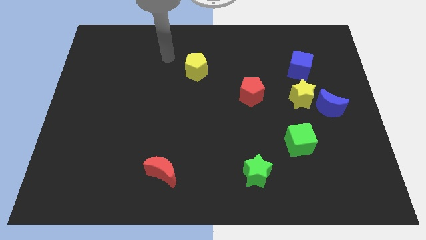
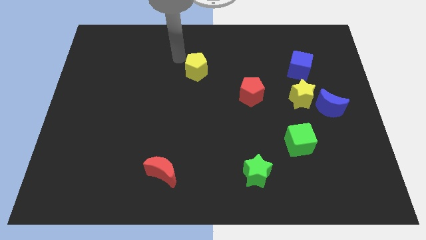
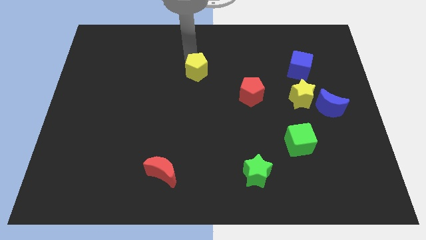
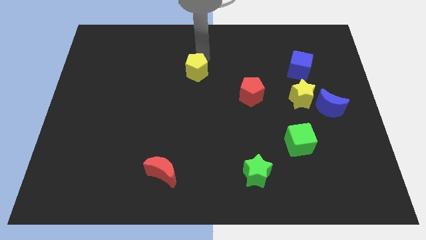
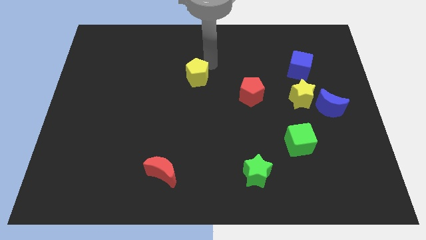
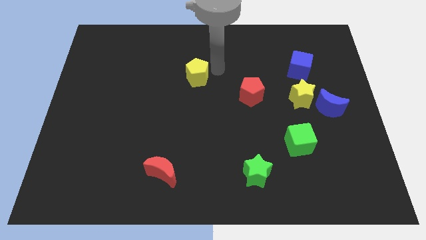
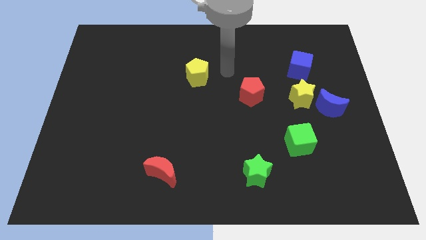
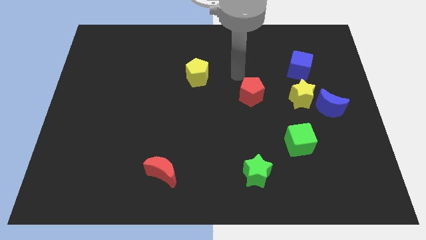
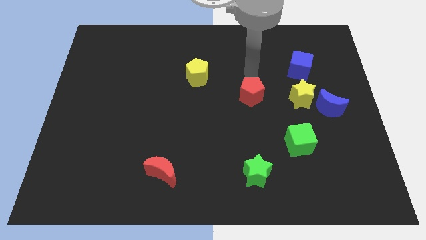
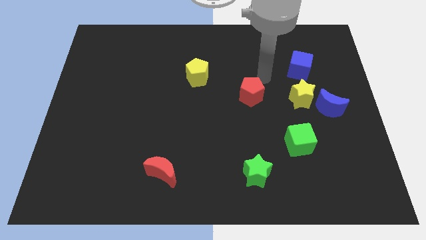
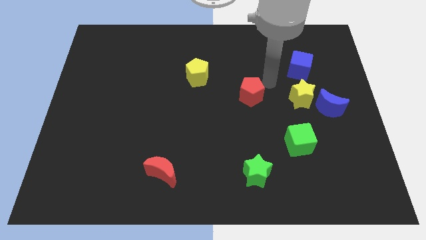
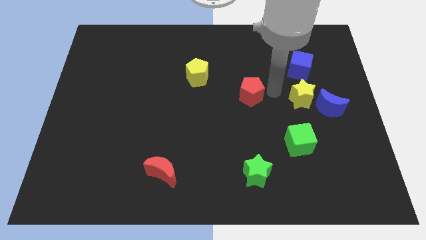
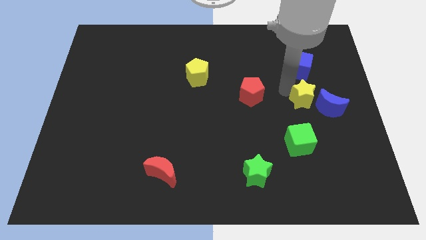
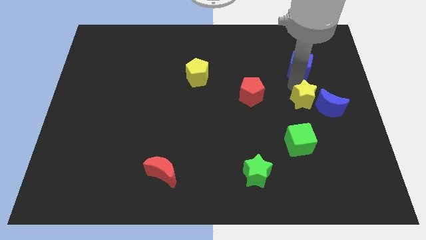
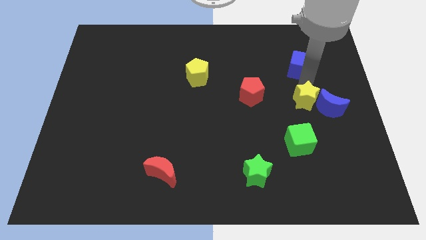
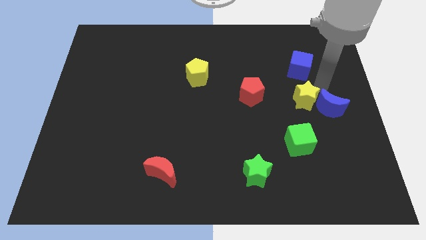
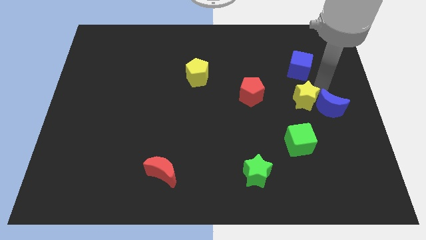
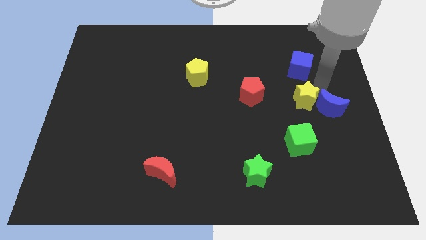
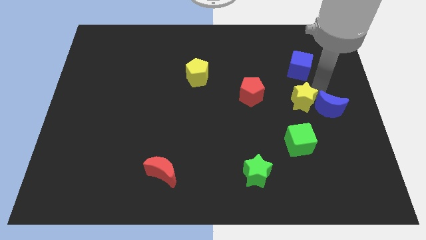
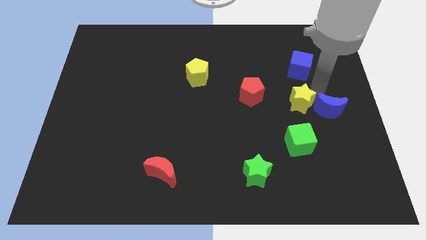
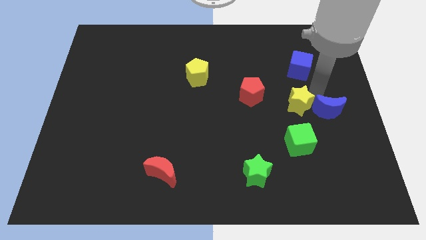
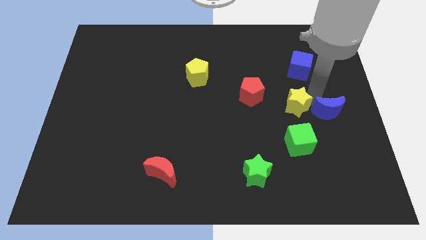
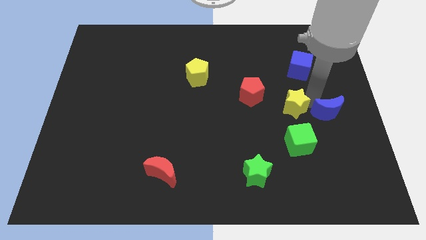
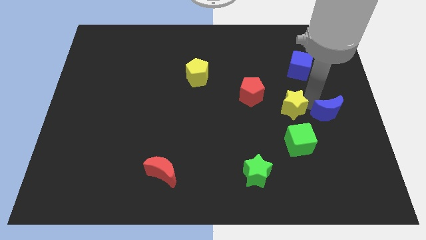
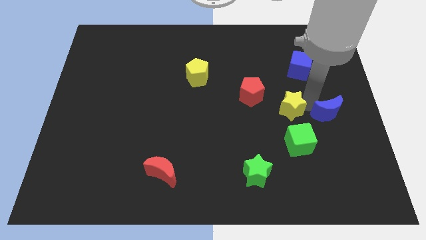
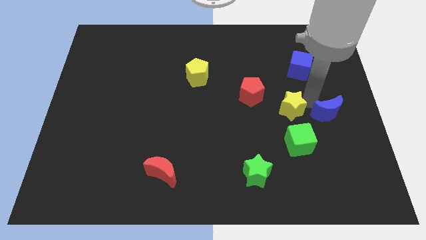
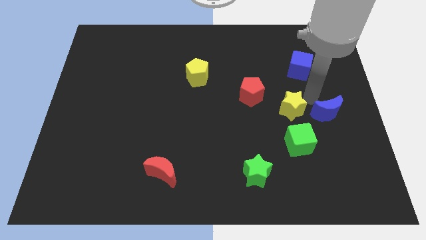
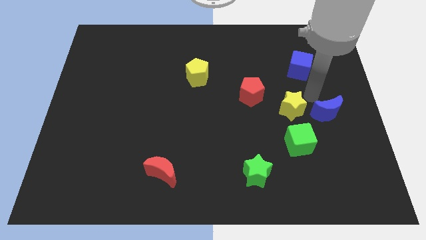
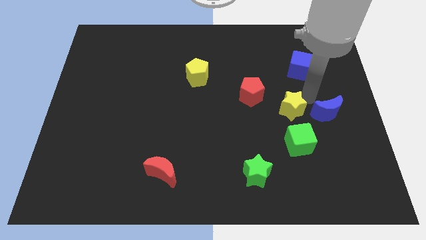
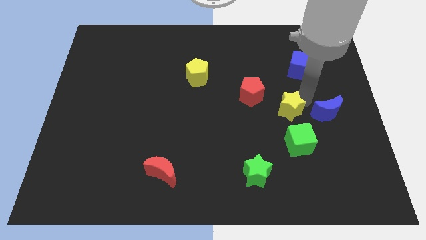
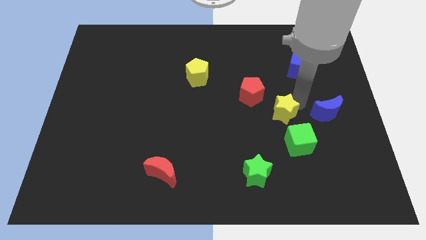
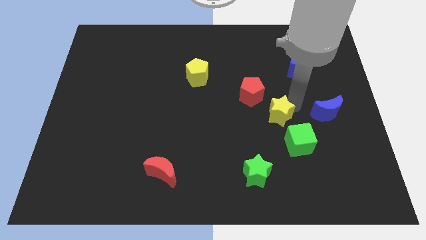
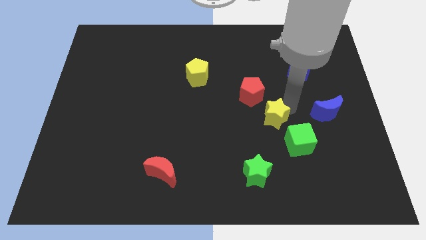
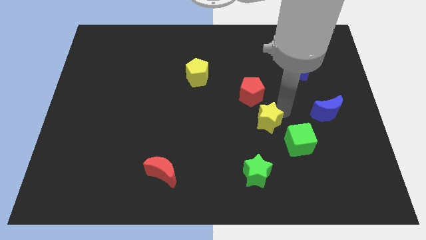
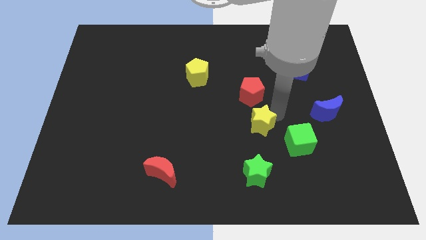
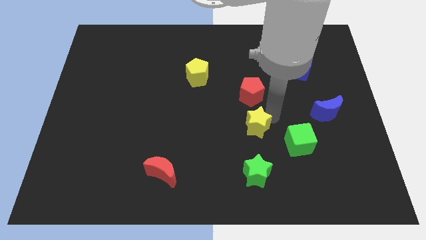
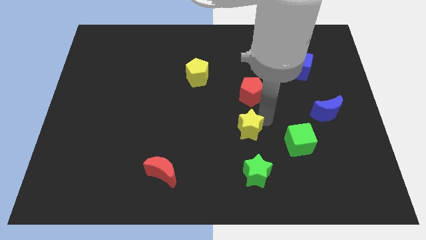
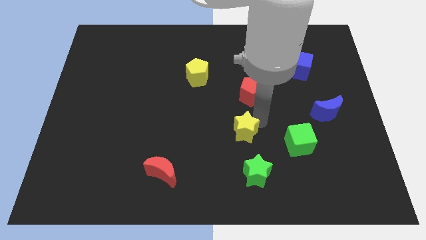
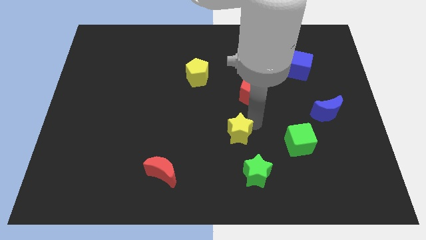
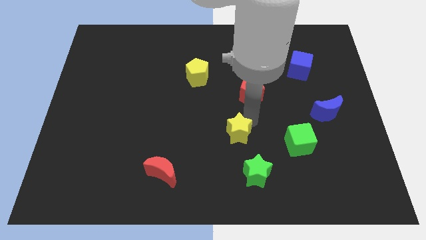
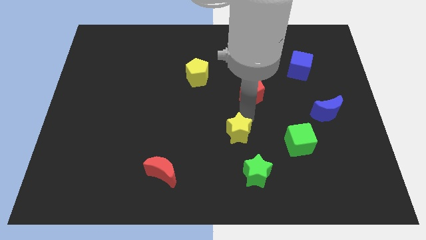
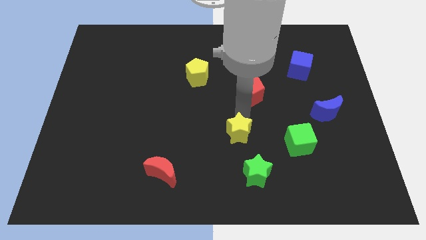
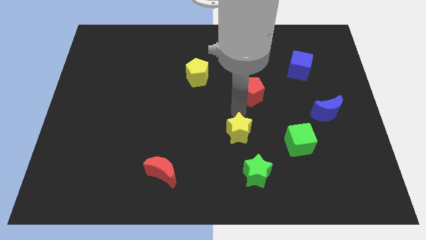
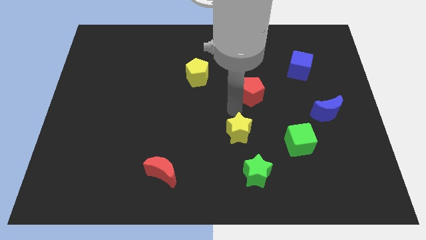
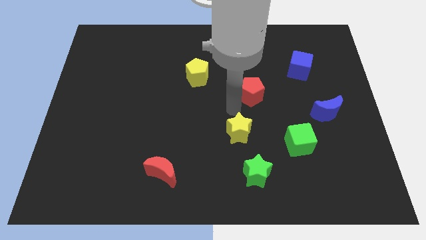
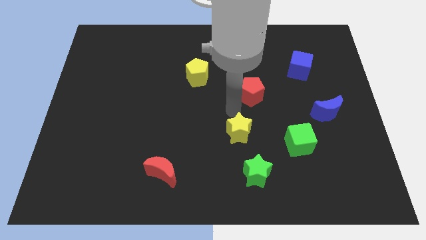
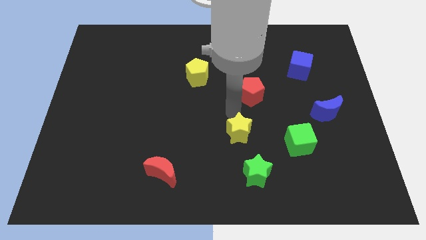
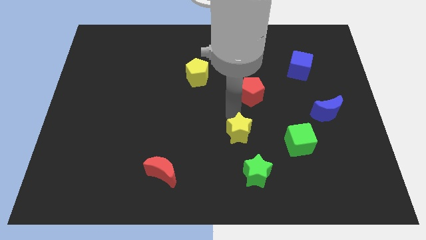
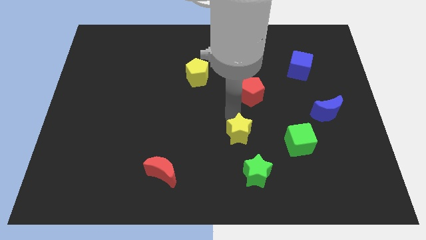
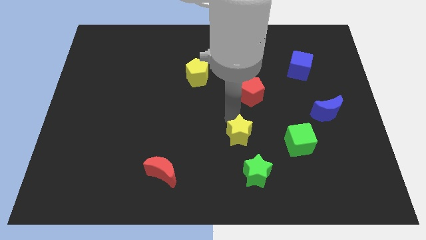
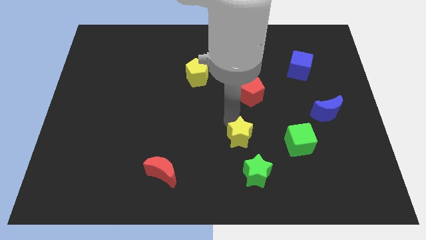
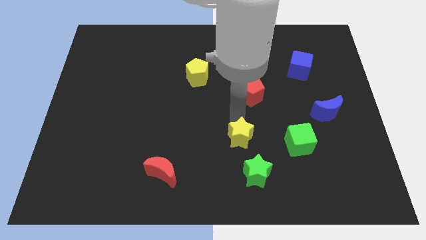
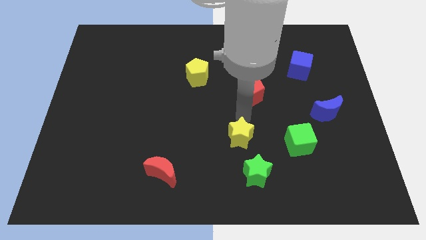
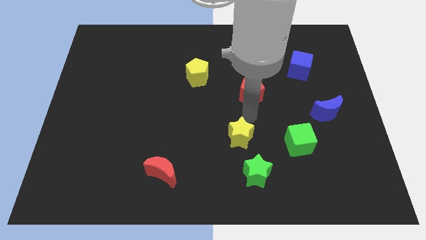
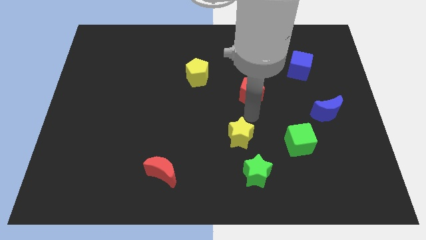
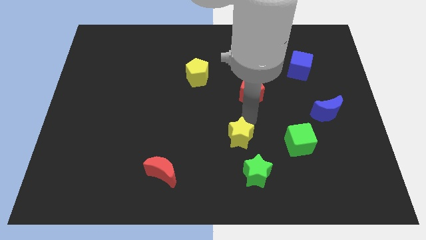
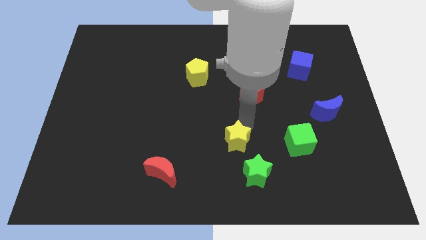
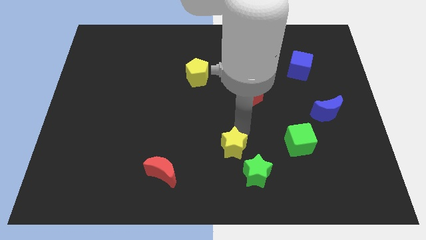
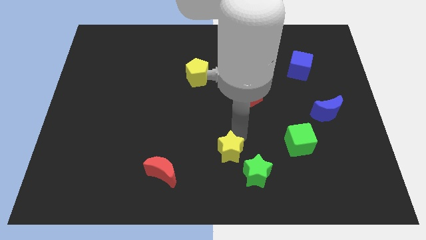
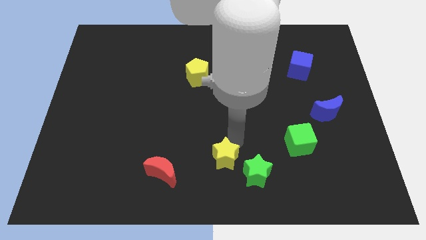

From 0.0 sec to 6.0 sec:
move the yellow star to the right side of the red moon

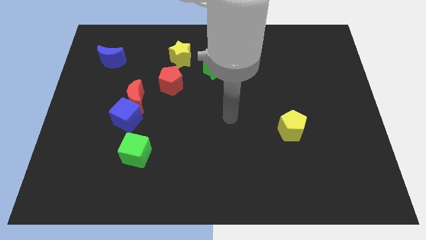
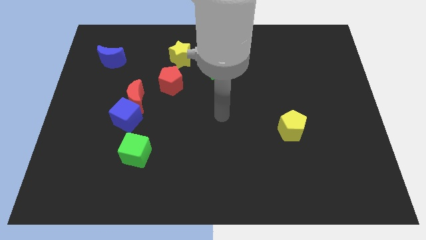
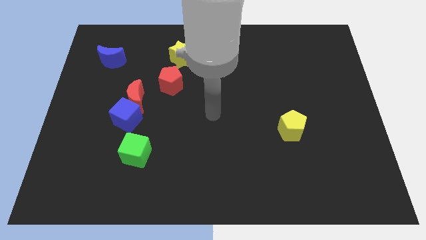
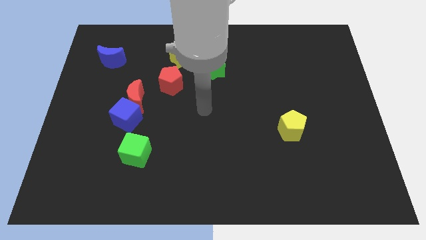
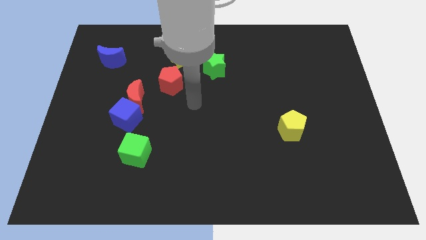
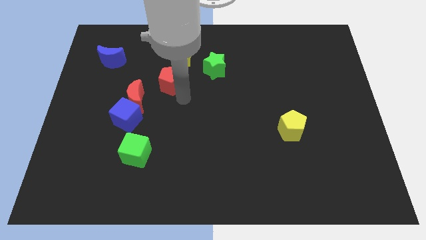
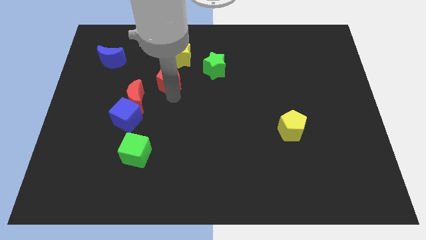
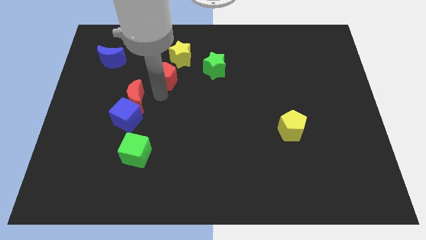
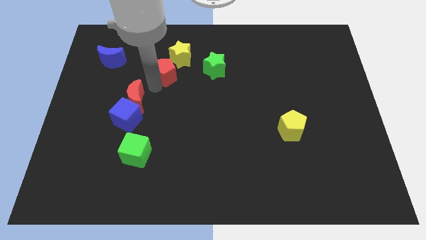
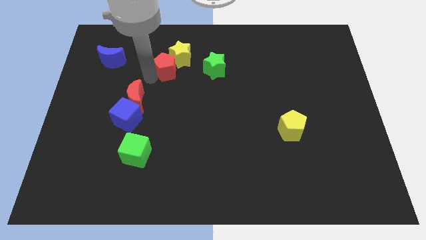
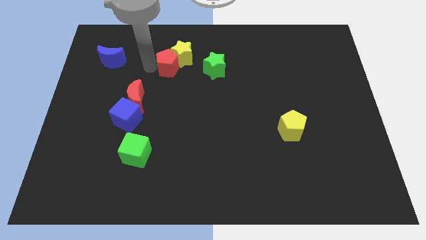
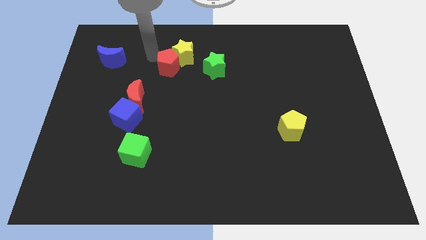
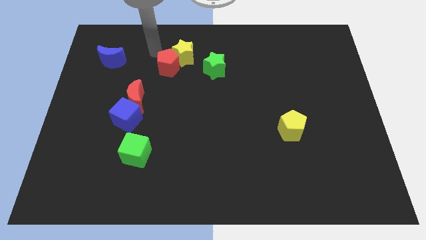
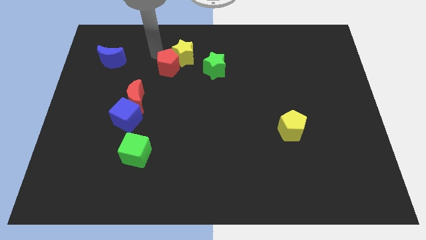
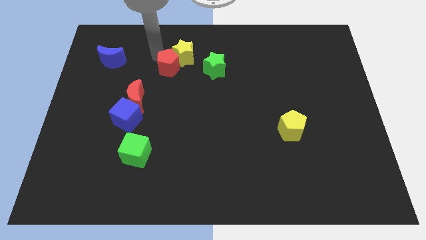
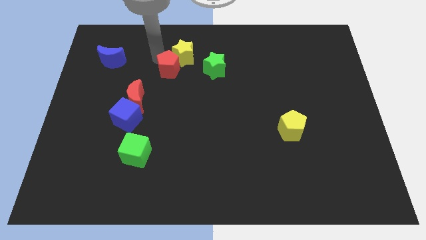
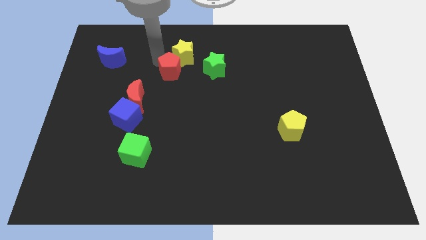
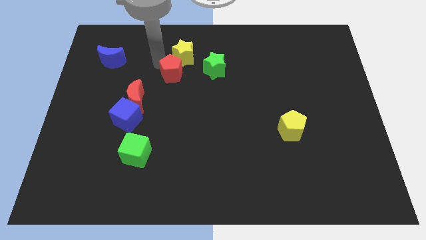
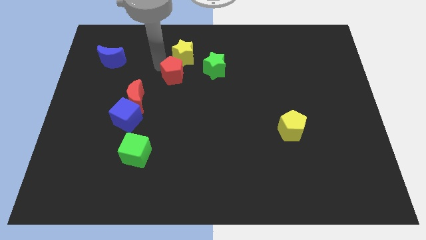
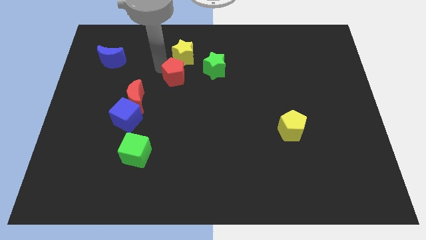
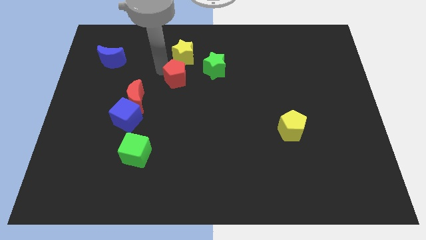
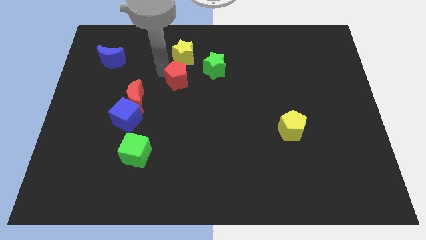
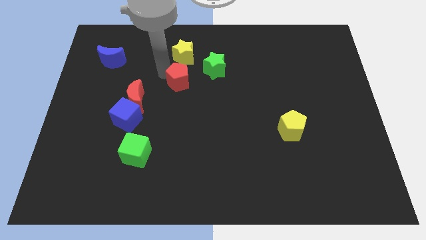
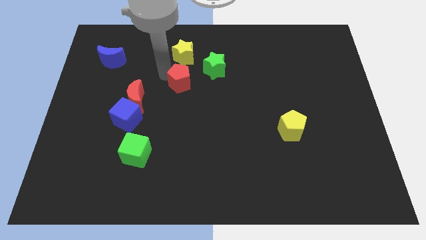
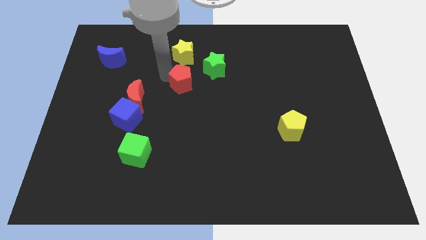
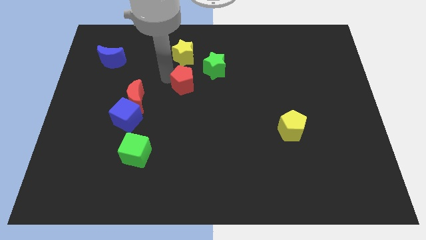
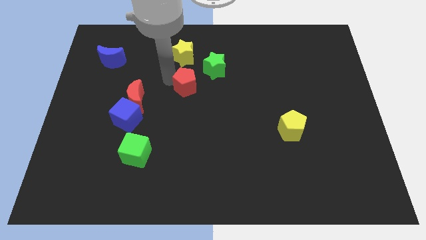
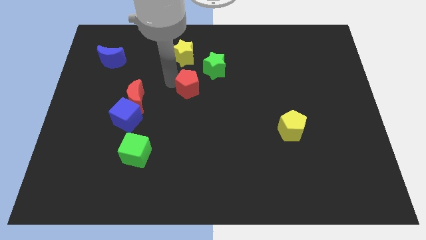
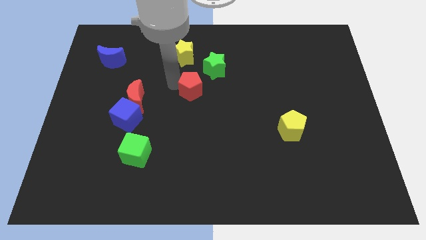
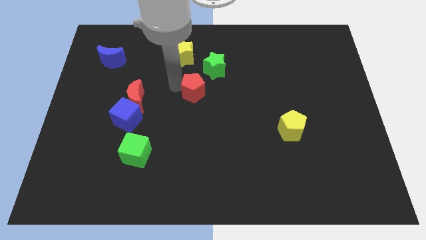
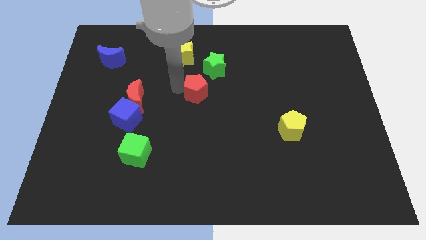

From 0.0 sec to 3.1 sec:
move the red pentagon to the bottom of the green star
